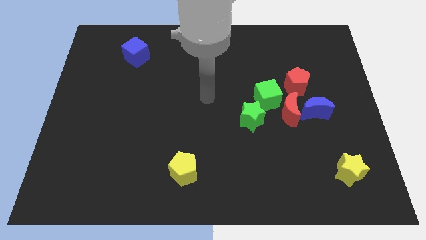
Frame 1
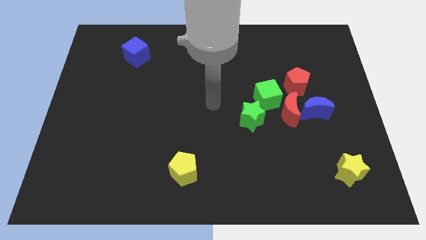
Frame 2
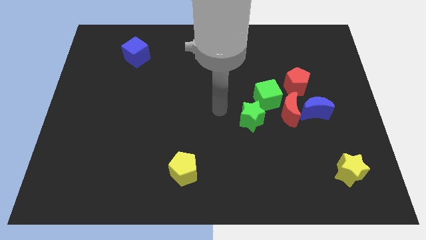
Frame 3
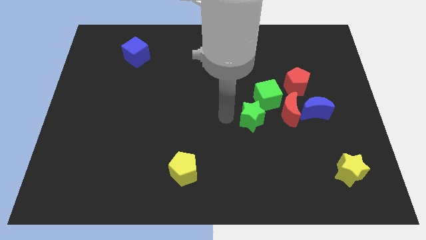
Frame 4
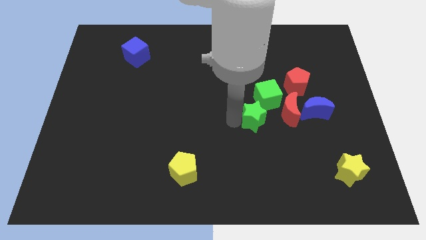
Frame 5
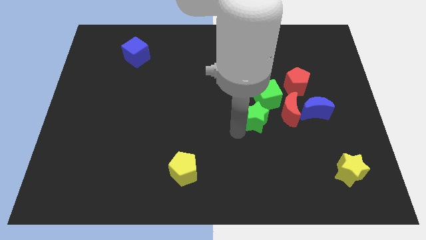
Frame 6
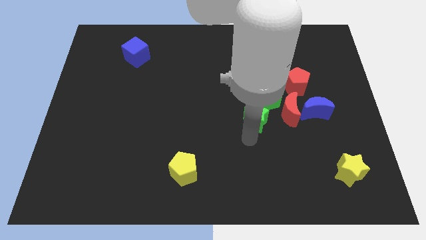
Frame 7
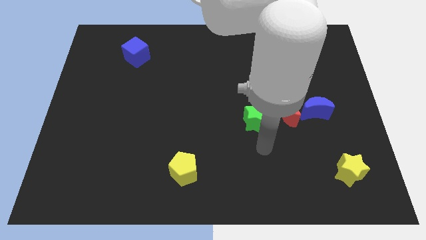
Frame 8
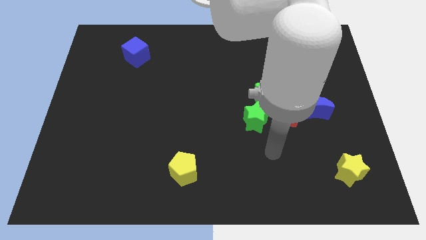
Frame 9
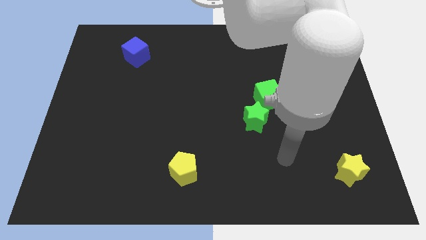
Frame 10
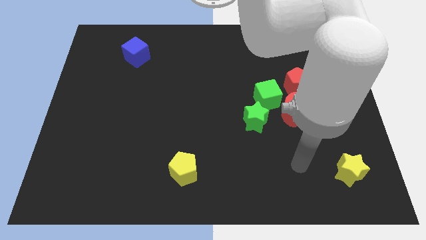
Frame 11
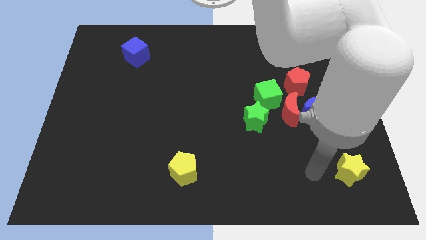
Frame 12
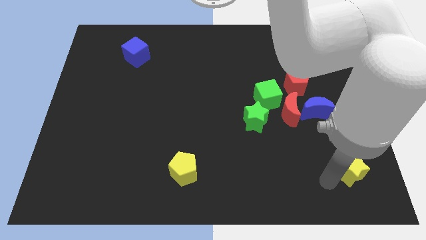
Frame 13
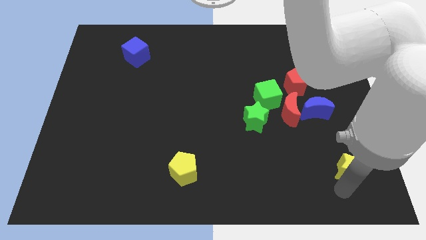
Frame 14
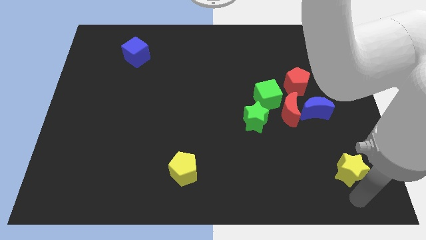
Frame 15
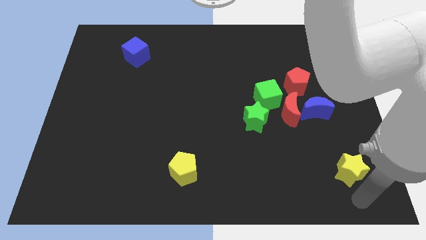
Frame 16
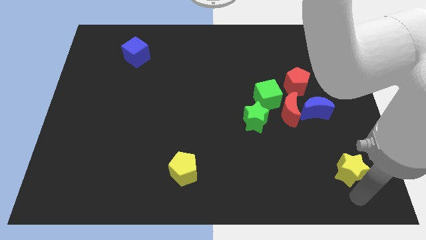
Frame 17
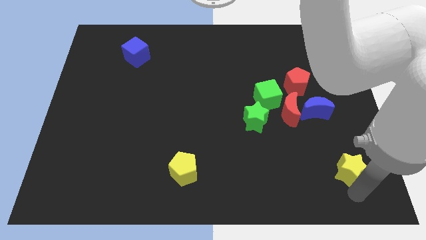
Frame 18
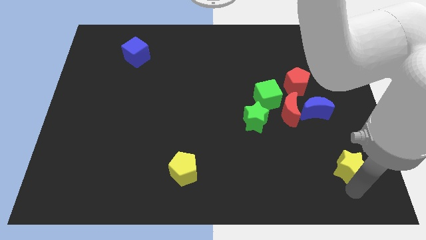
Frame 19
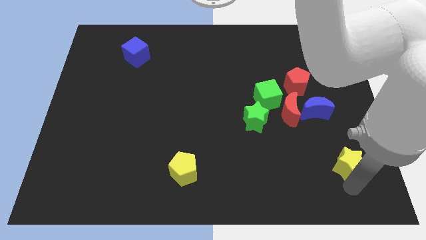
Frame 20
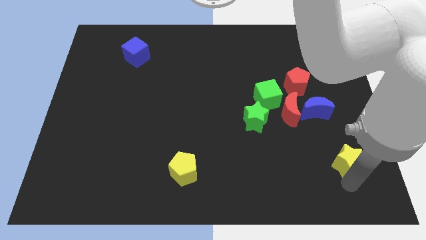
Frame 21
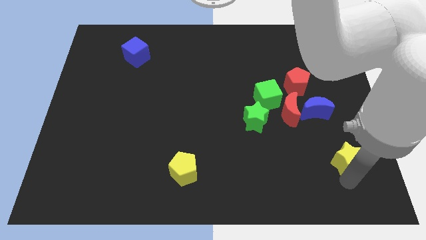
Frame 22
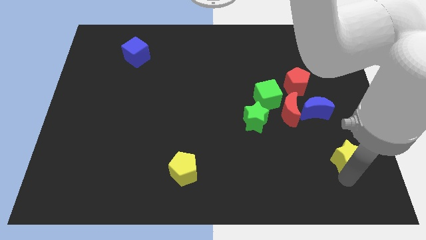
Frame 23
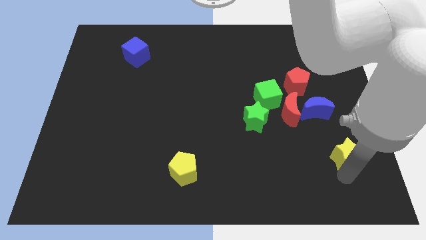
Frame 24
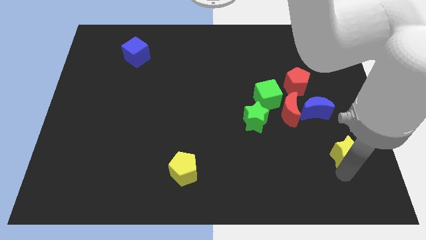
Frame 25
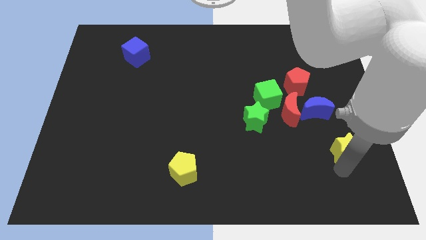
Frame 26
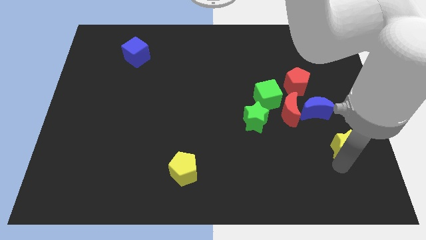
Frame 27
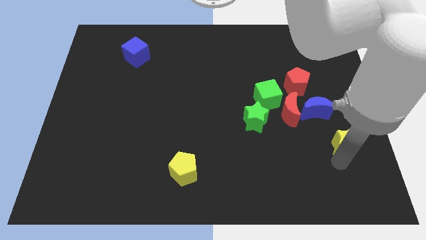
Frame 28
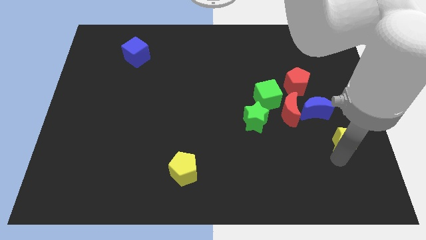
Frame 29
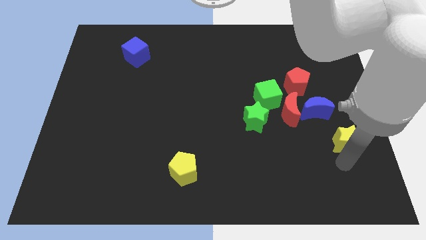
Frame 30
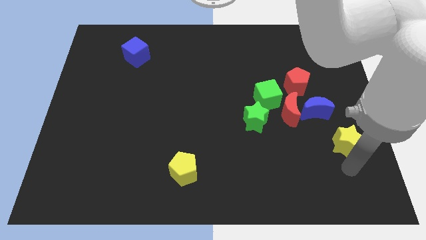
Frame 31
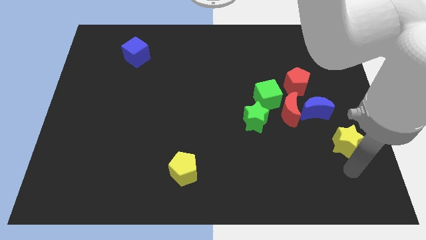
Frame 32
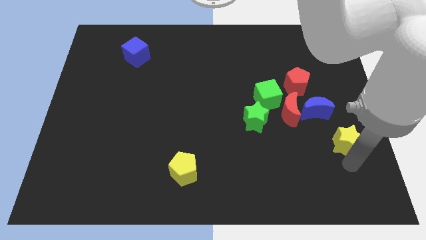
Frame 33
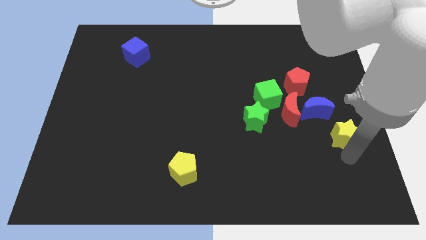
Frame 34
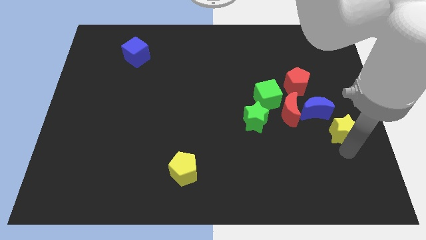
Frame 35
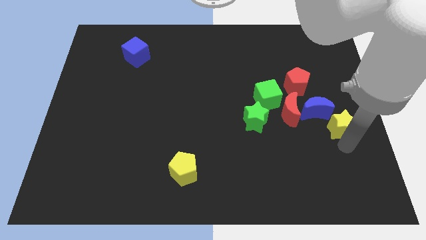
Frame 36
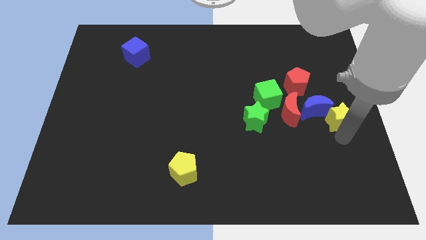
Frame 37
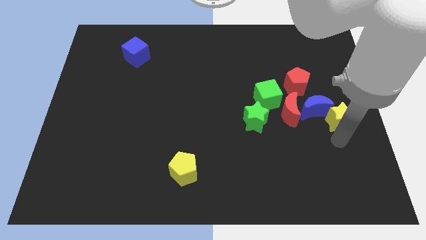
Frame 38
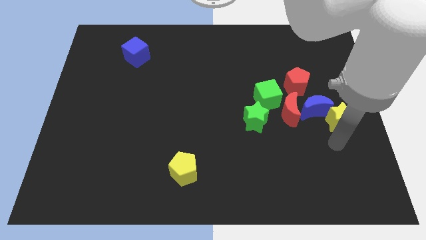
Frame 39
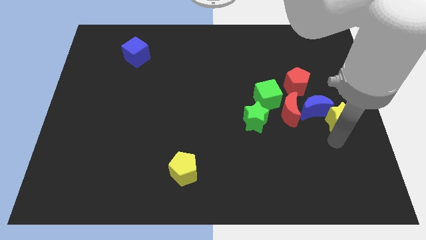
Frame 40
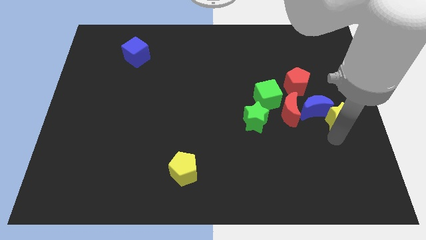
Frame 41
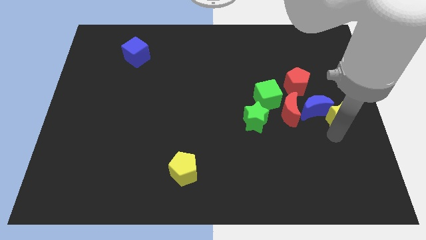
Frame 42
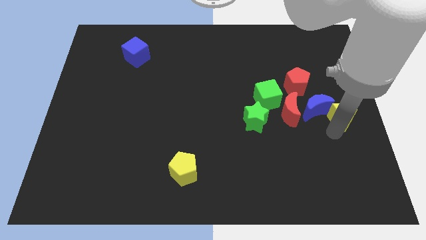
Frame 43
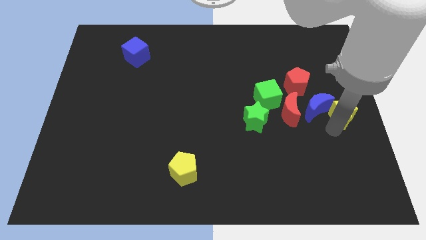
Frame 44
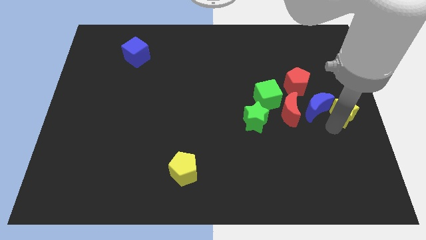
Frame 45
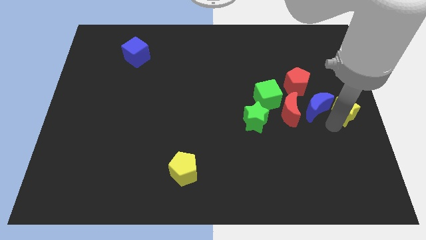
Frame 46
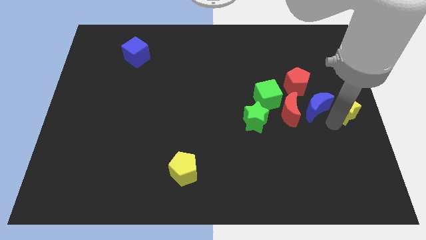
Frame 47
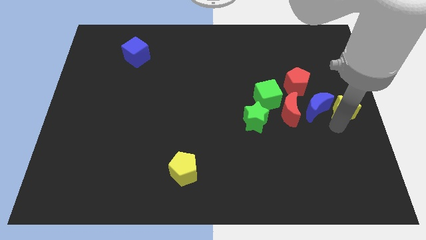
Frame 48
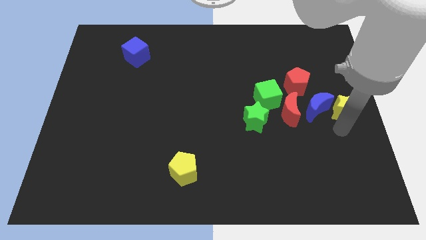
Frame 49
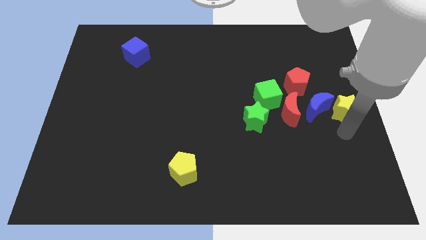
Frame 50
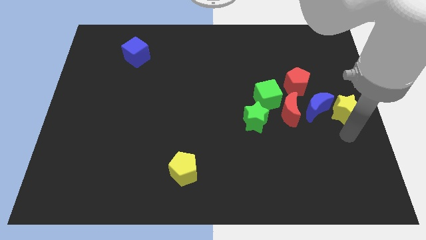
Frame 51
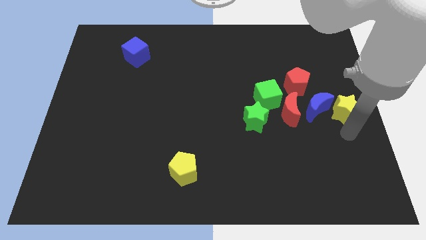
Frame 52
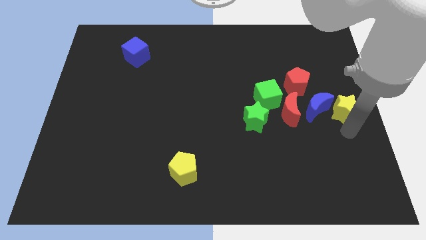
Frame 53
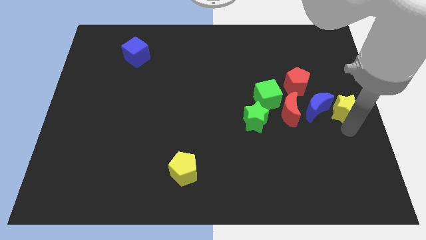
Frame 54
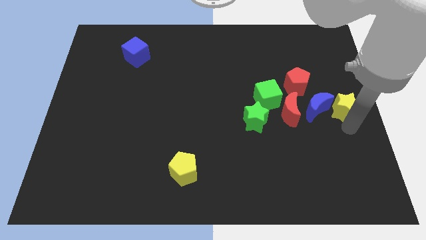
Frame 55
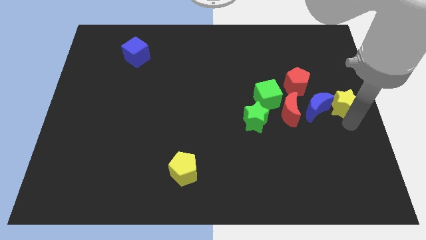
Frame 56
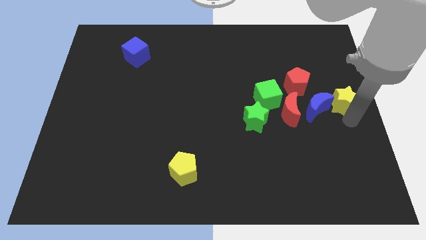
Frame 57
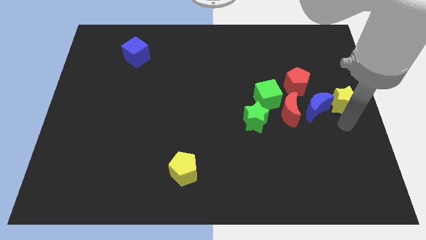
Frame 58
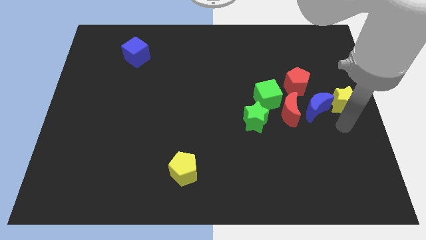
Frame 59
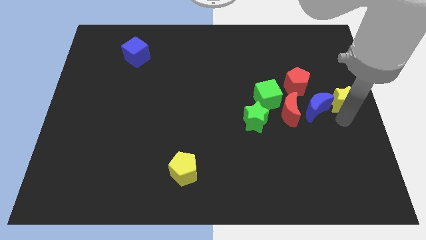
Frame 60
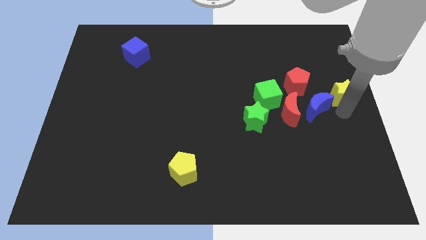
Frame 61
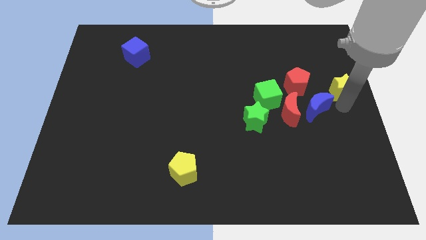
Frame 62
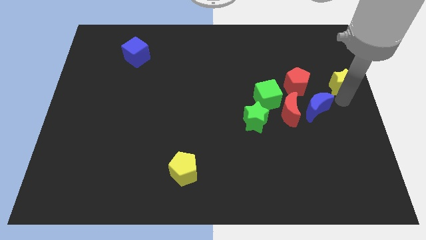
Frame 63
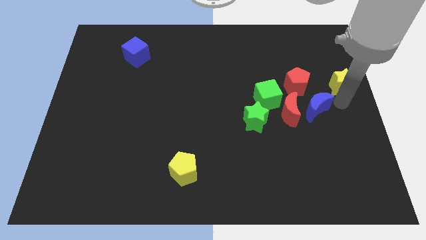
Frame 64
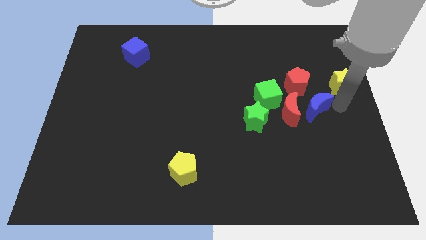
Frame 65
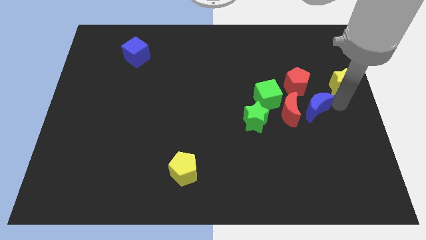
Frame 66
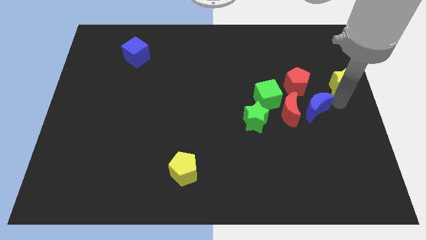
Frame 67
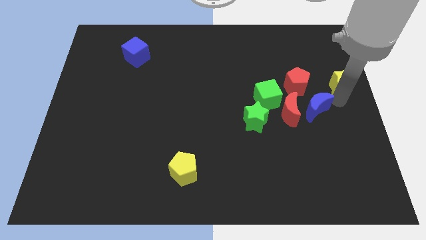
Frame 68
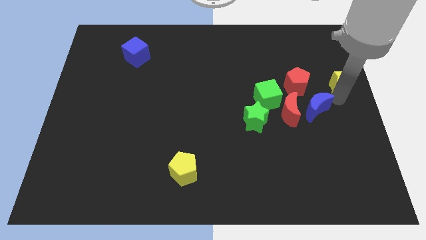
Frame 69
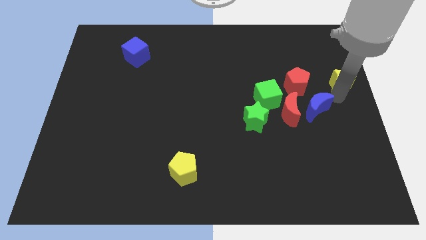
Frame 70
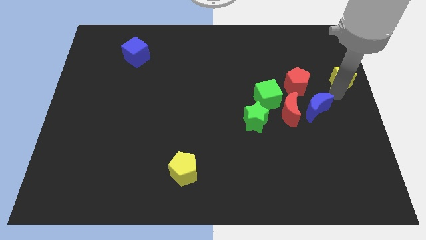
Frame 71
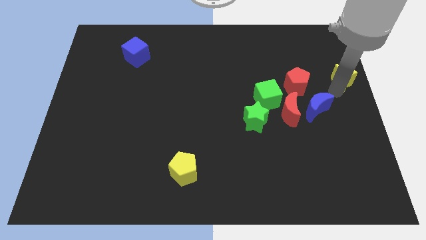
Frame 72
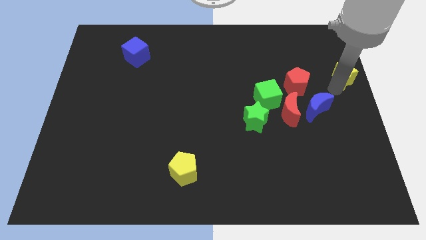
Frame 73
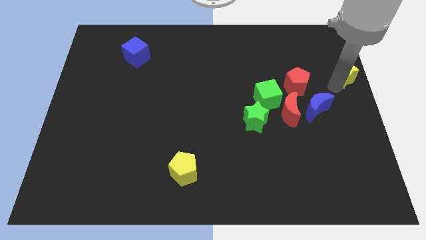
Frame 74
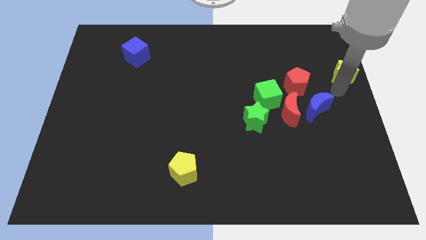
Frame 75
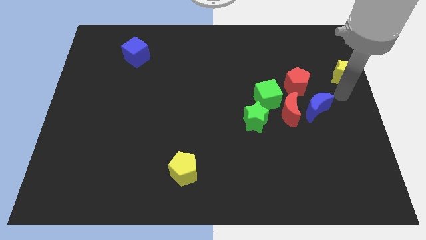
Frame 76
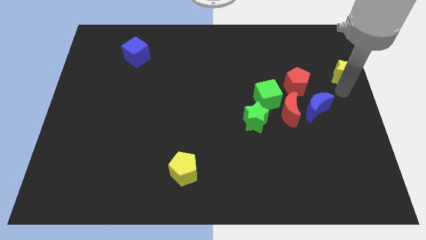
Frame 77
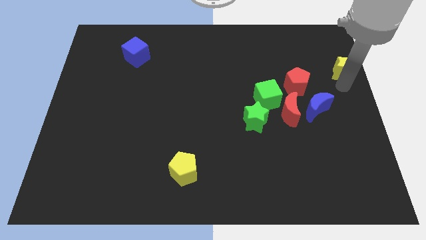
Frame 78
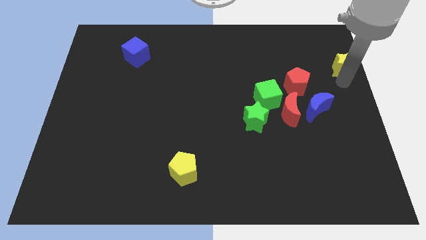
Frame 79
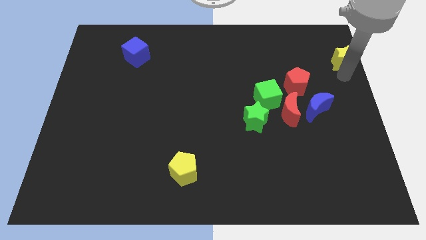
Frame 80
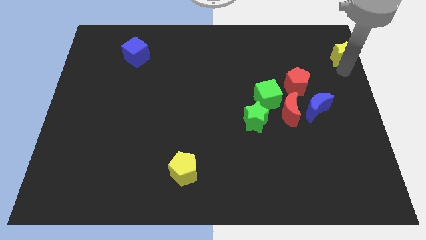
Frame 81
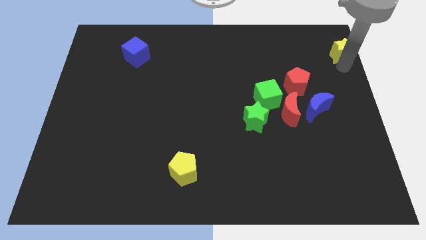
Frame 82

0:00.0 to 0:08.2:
slide the yellow star to the upper right corner
